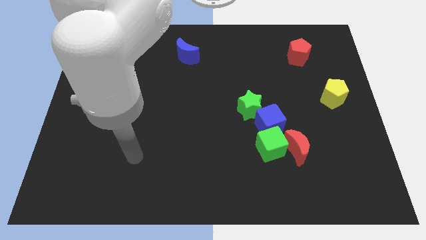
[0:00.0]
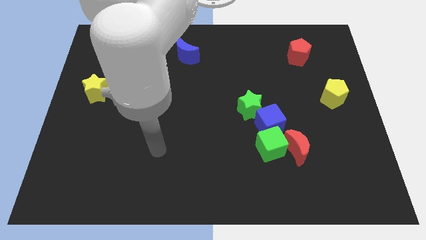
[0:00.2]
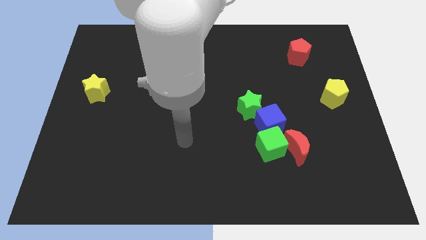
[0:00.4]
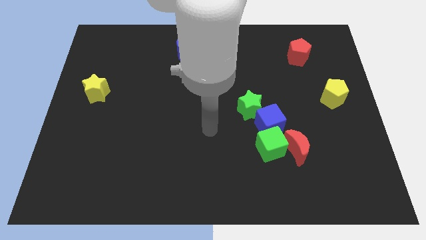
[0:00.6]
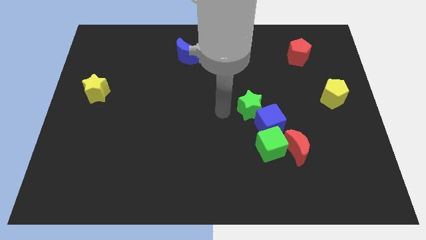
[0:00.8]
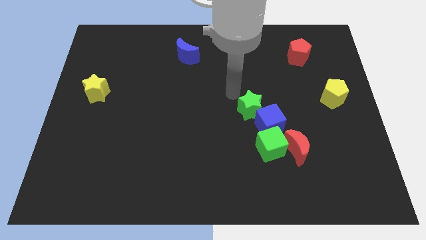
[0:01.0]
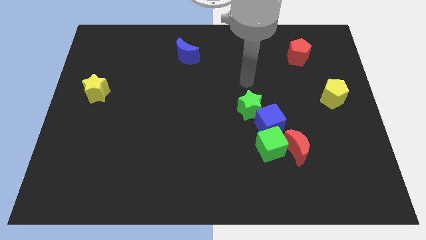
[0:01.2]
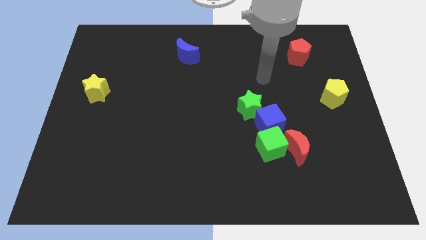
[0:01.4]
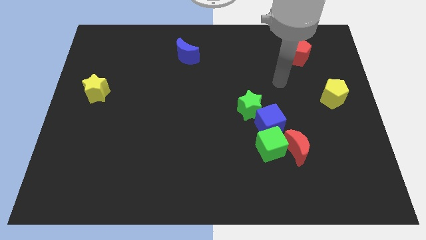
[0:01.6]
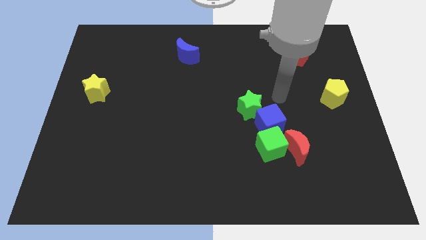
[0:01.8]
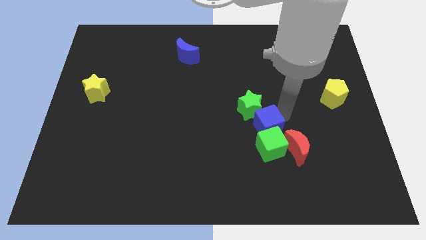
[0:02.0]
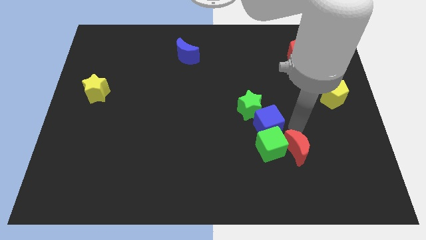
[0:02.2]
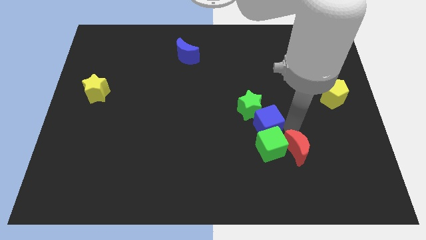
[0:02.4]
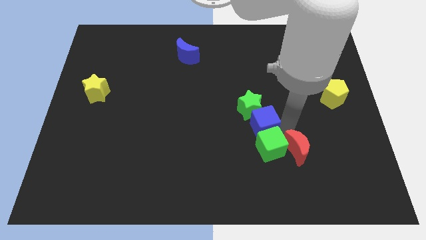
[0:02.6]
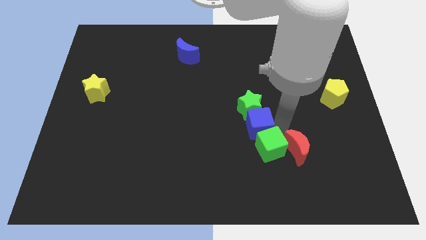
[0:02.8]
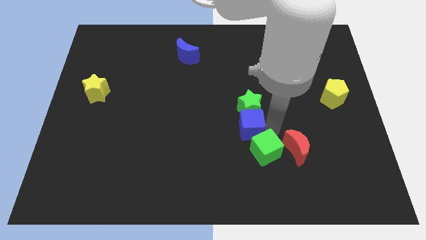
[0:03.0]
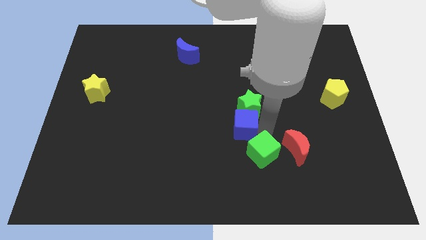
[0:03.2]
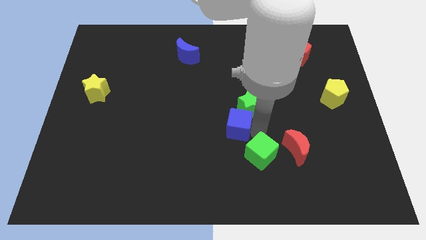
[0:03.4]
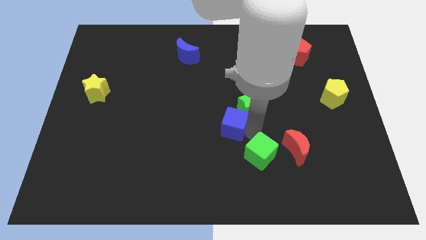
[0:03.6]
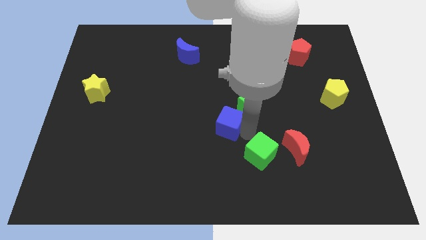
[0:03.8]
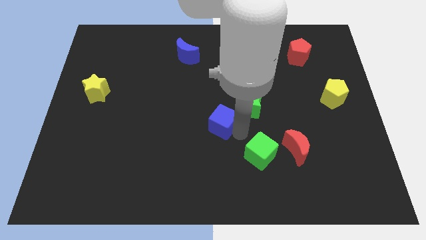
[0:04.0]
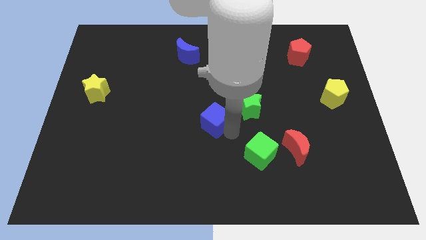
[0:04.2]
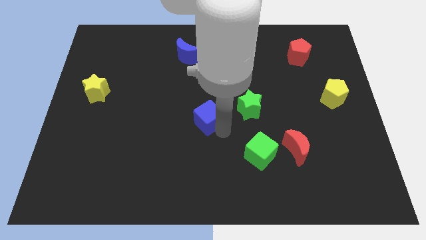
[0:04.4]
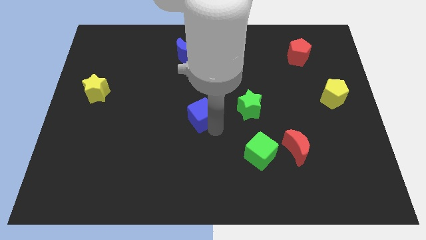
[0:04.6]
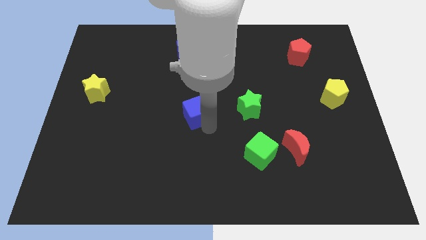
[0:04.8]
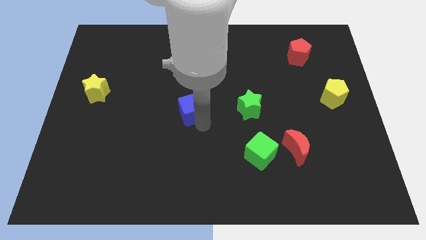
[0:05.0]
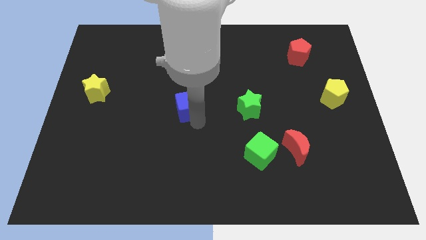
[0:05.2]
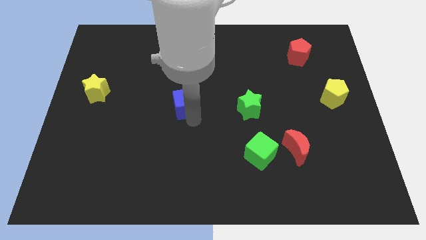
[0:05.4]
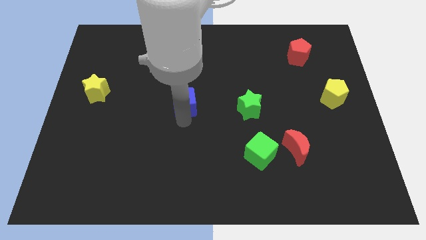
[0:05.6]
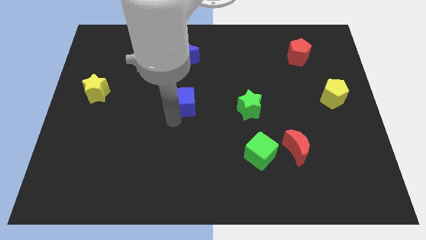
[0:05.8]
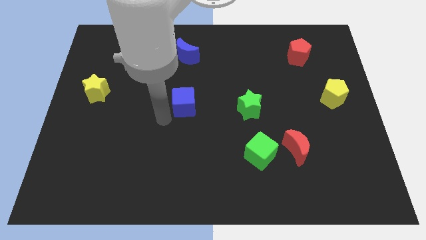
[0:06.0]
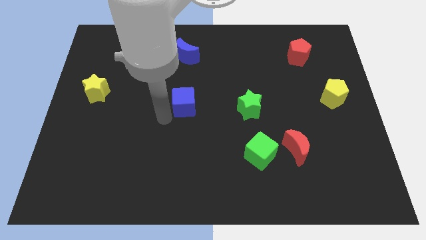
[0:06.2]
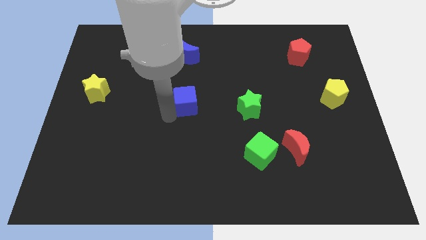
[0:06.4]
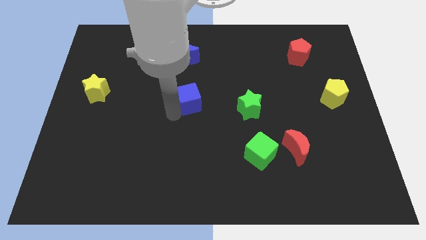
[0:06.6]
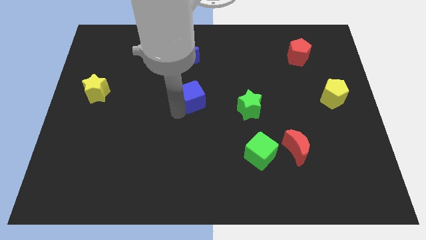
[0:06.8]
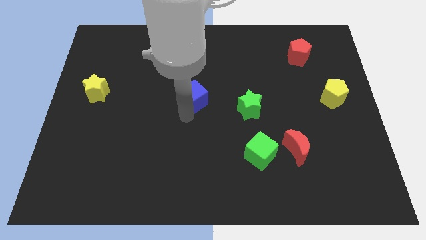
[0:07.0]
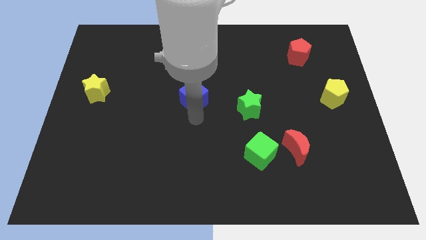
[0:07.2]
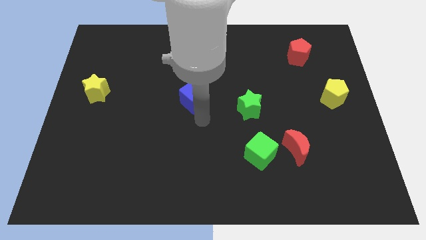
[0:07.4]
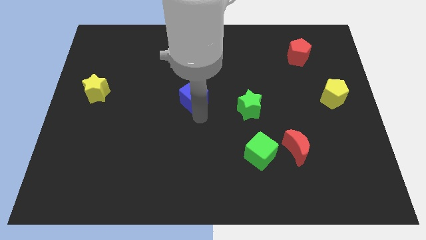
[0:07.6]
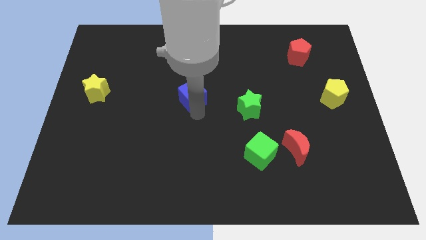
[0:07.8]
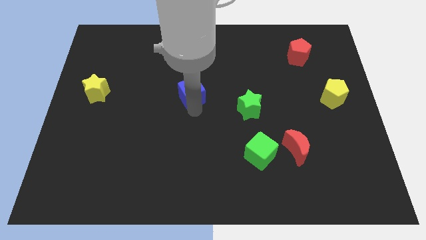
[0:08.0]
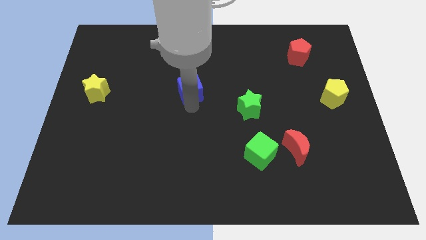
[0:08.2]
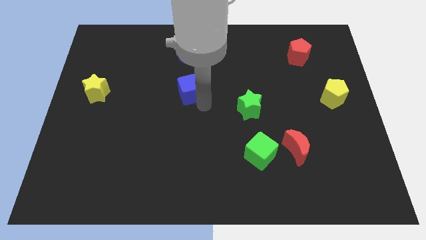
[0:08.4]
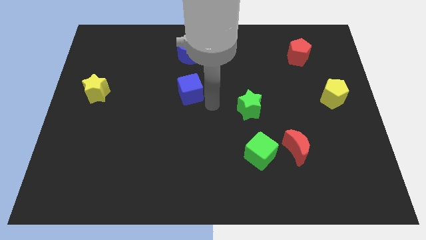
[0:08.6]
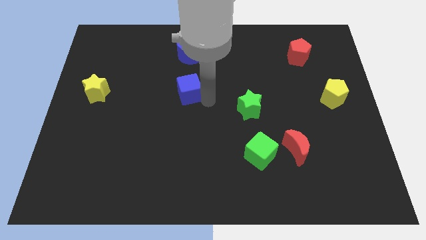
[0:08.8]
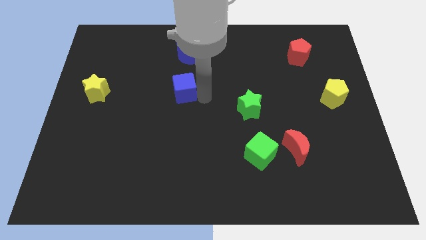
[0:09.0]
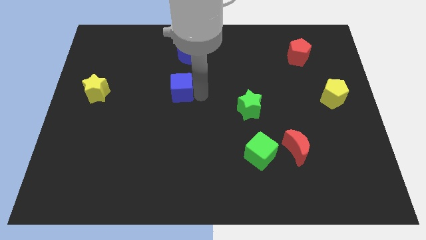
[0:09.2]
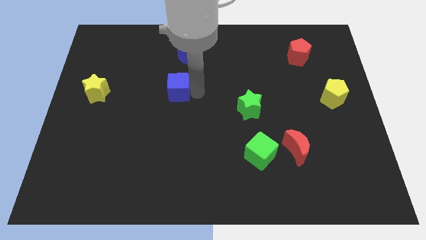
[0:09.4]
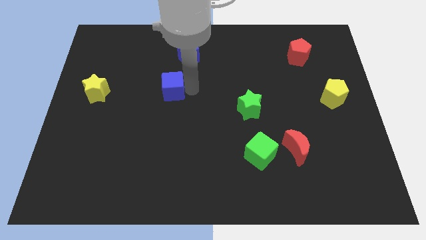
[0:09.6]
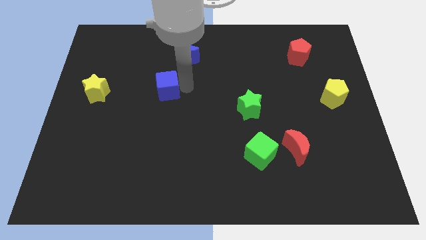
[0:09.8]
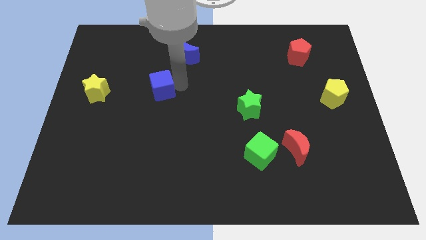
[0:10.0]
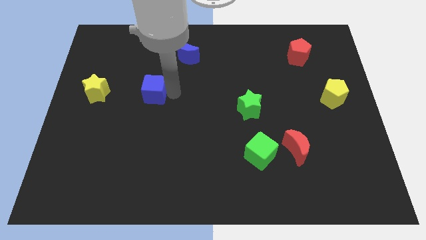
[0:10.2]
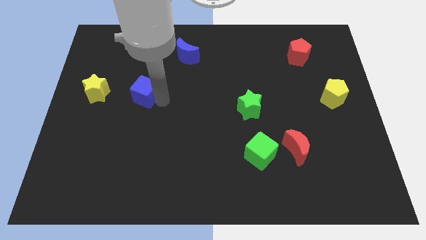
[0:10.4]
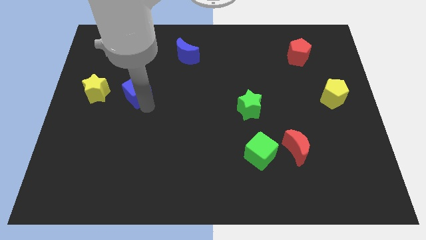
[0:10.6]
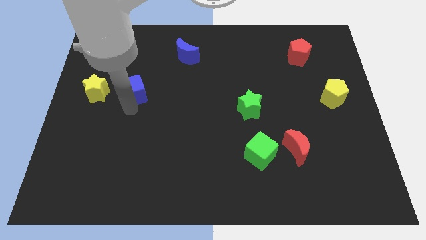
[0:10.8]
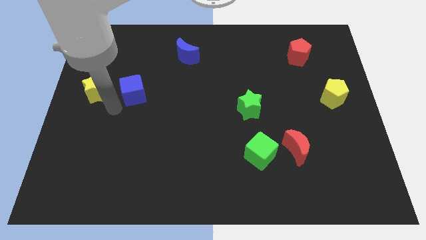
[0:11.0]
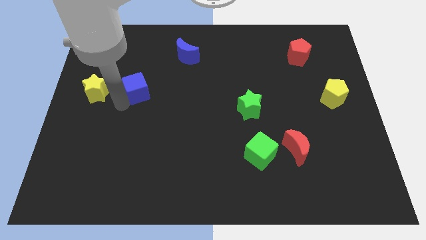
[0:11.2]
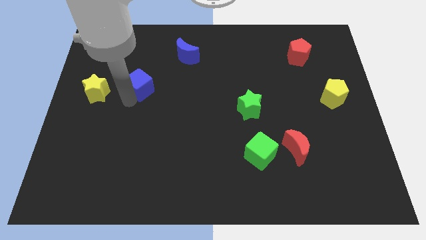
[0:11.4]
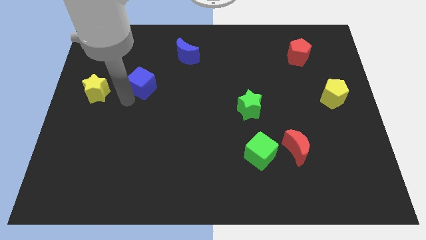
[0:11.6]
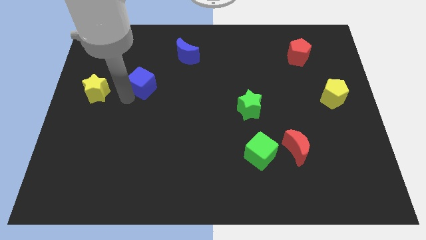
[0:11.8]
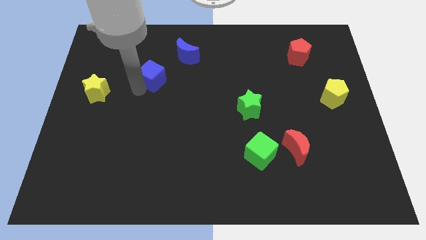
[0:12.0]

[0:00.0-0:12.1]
slide the blue cube to the bottom left of the blue moon

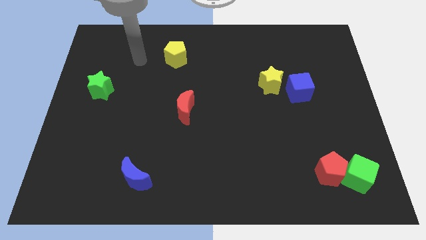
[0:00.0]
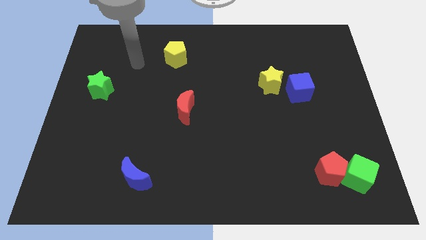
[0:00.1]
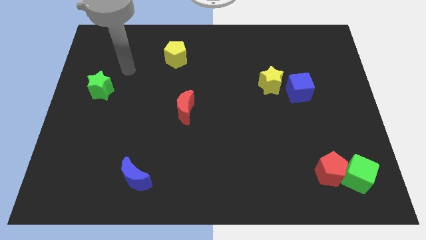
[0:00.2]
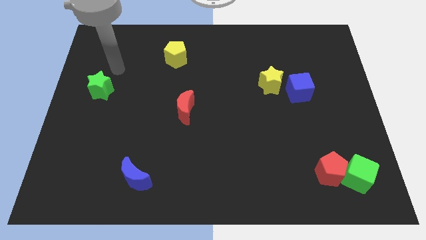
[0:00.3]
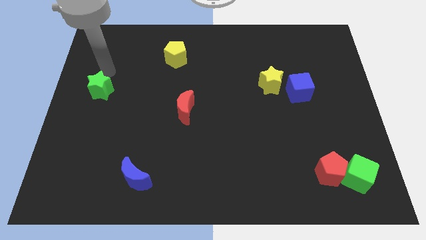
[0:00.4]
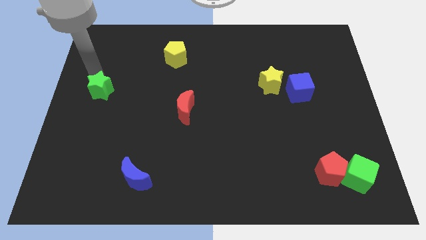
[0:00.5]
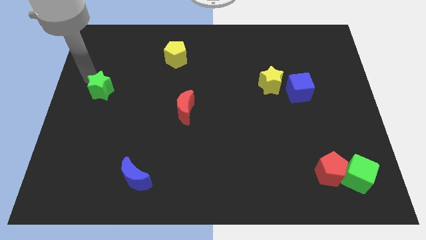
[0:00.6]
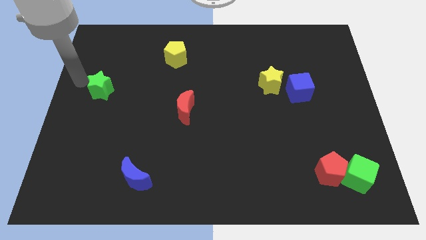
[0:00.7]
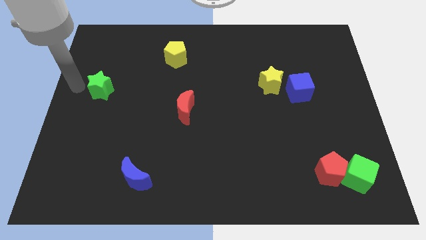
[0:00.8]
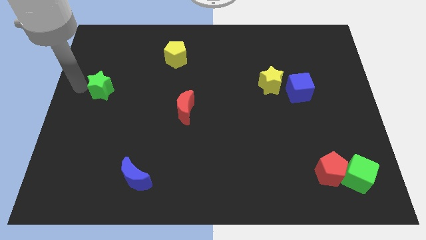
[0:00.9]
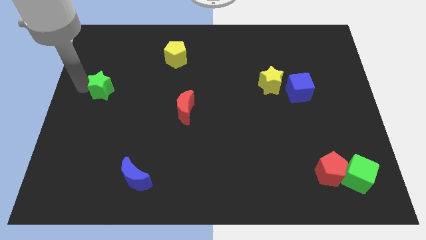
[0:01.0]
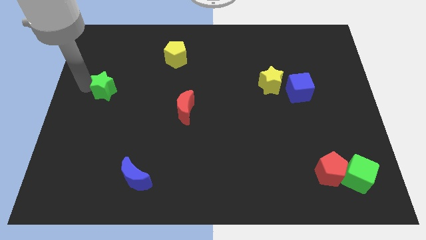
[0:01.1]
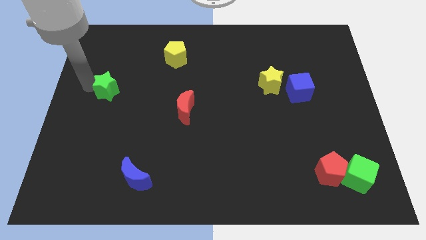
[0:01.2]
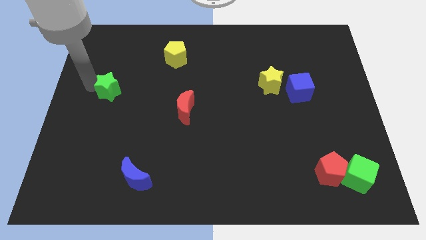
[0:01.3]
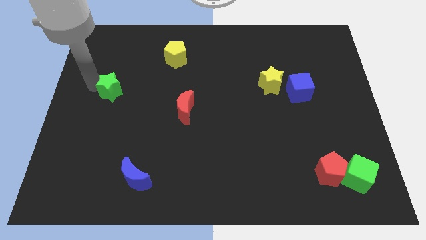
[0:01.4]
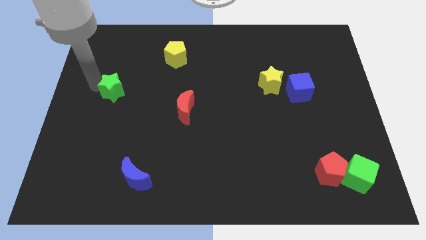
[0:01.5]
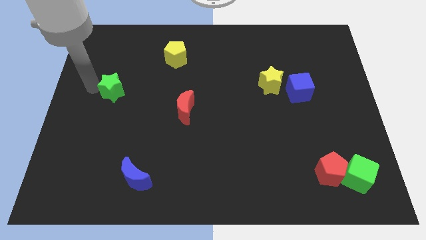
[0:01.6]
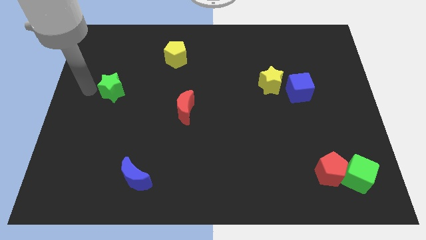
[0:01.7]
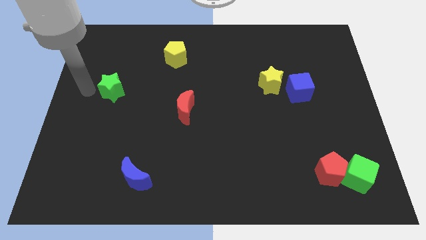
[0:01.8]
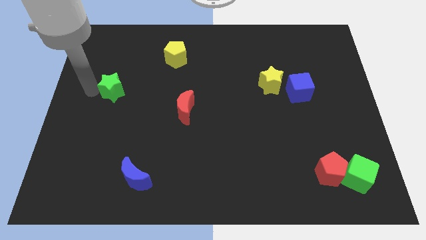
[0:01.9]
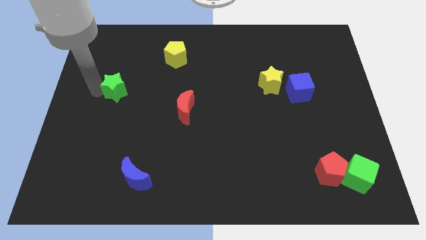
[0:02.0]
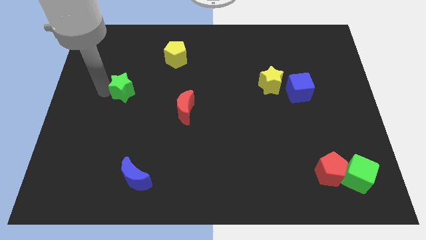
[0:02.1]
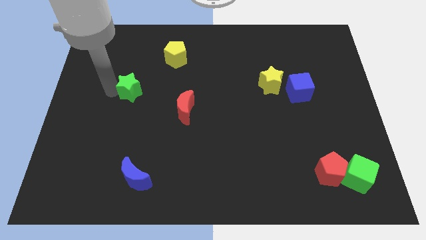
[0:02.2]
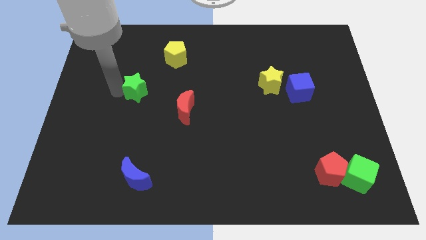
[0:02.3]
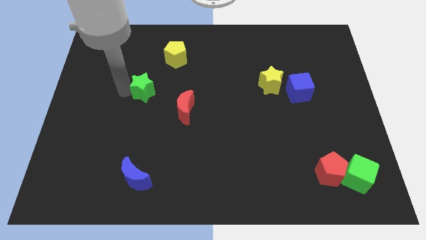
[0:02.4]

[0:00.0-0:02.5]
put the green star diagonally up and to the left of the red moon
